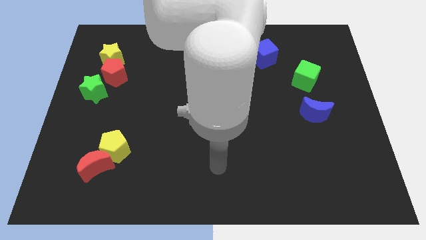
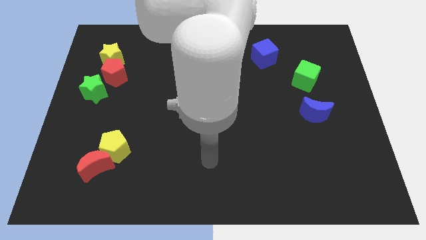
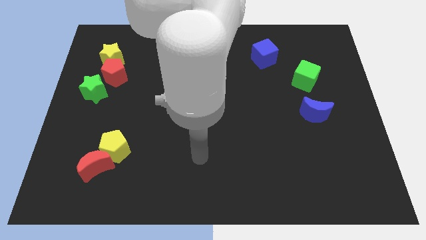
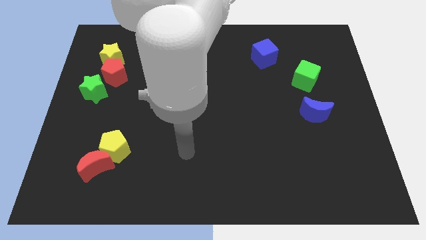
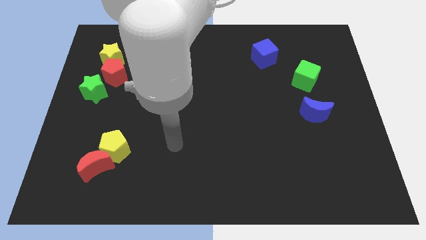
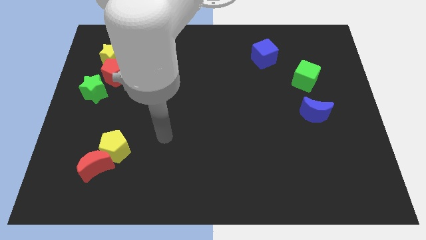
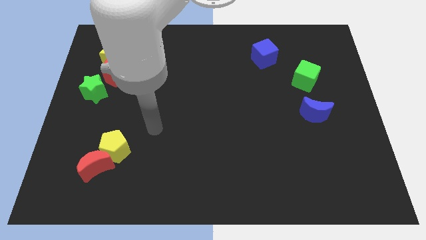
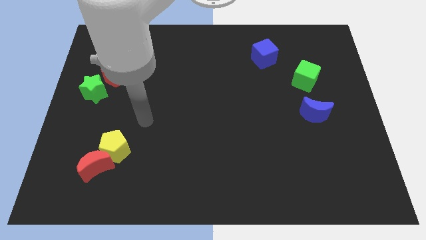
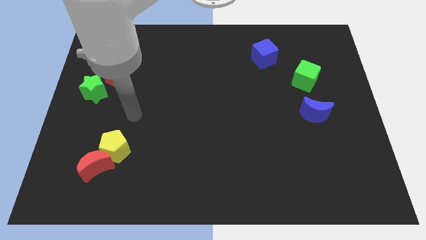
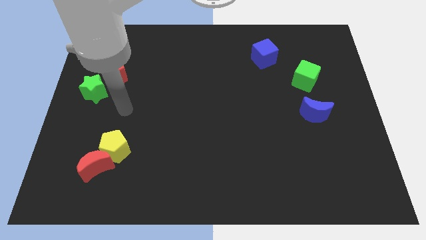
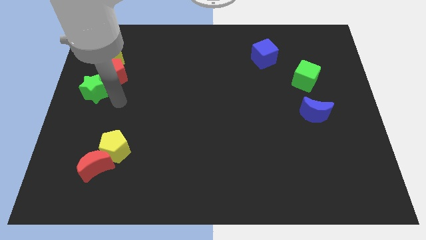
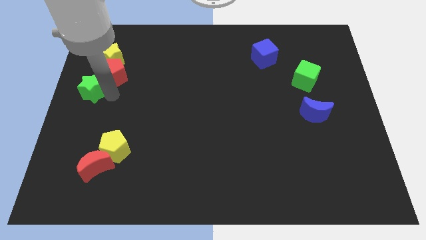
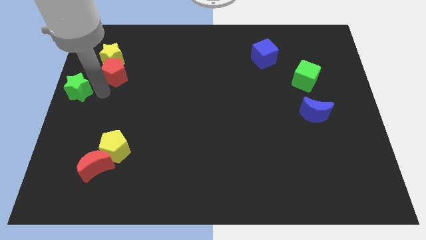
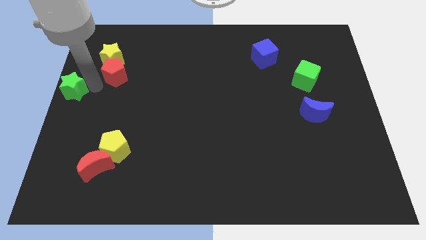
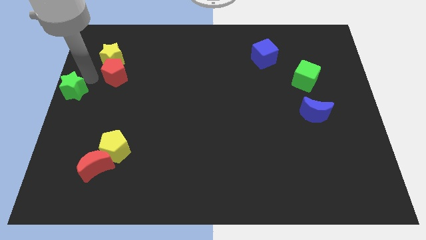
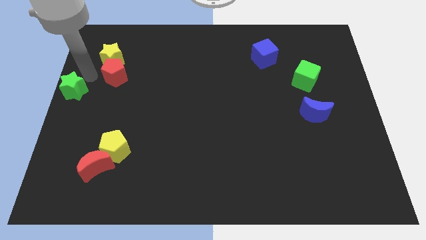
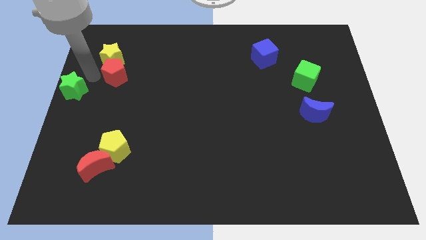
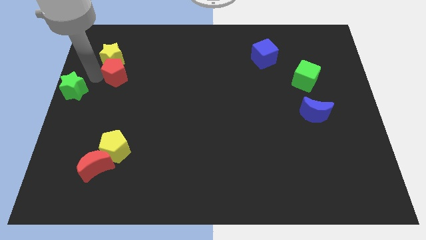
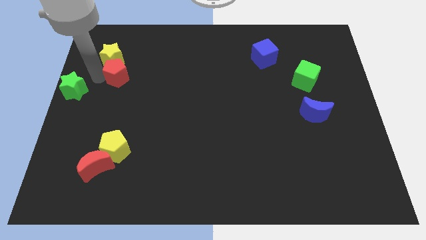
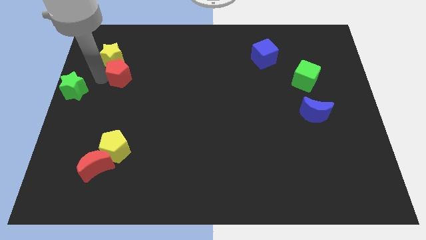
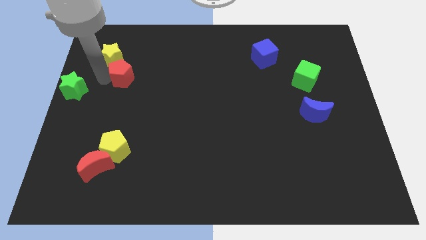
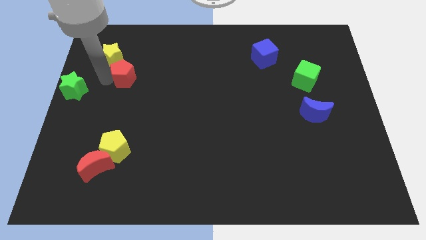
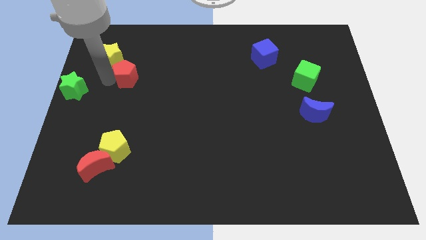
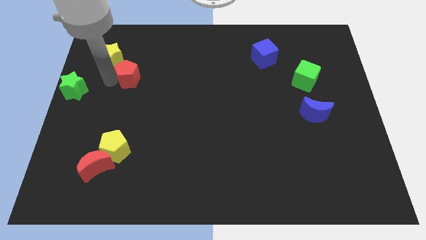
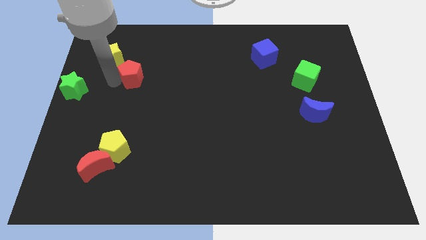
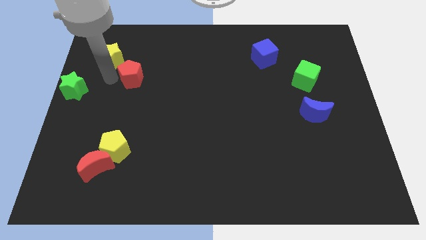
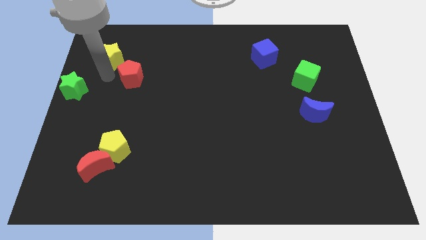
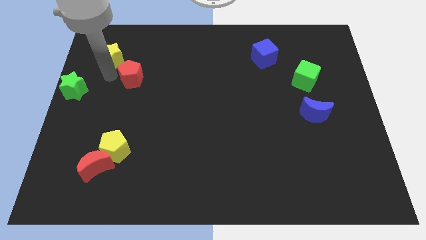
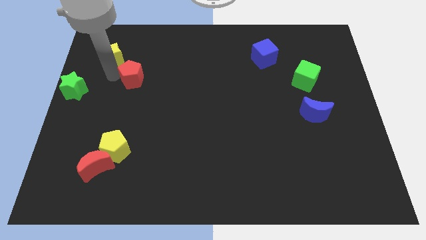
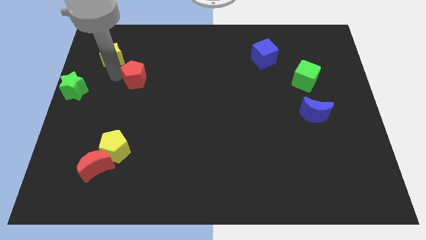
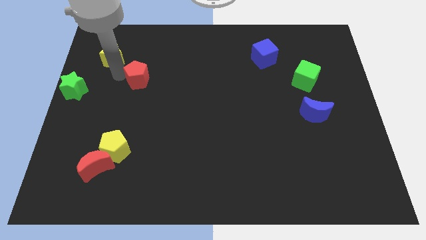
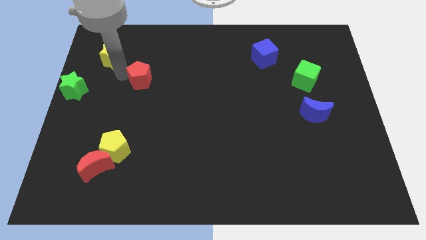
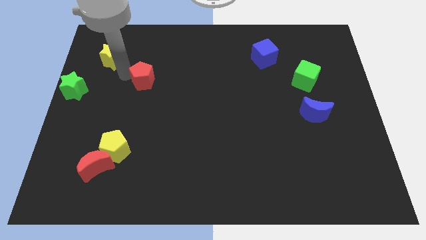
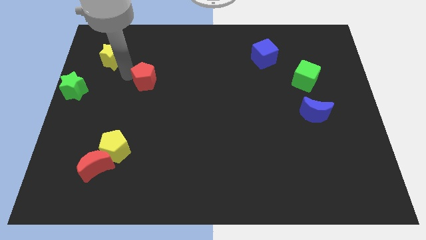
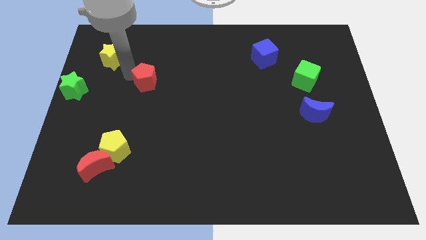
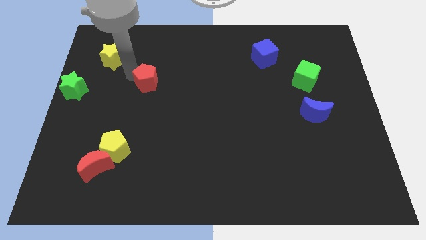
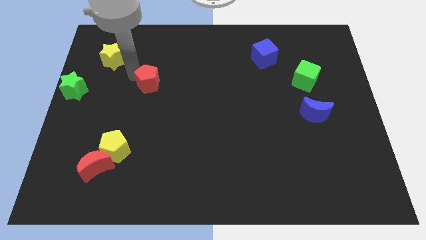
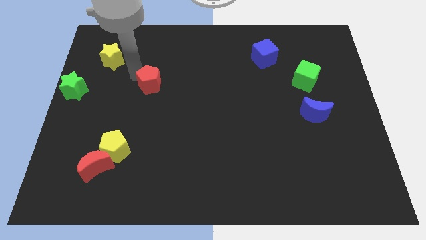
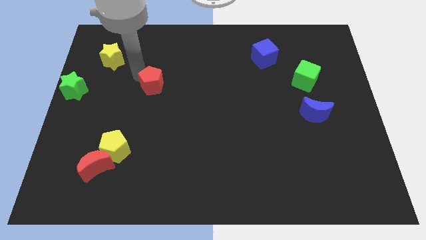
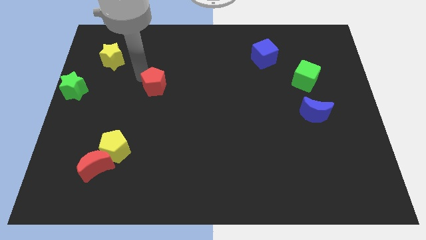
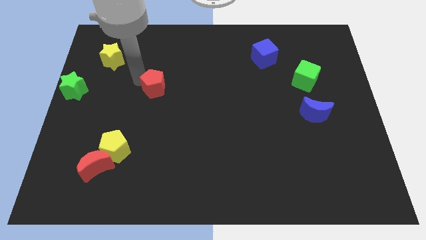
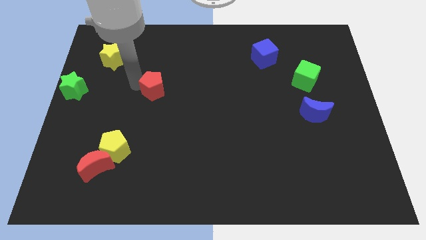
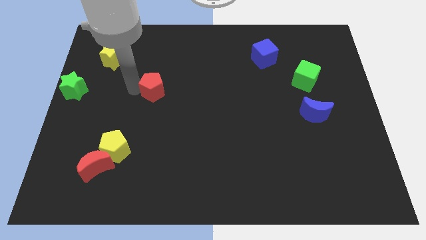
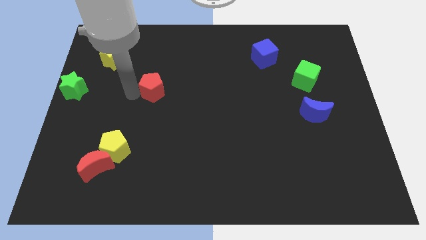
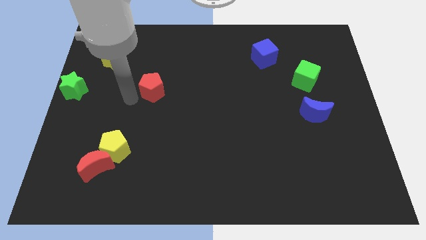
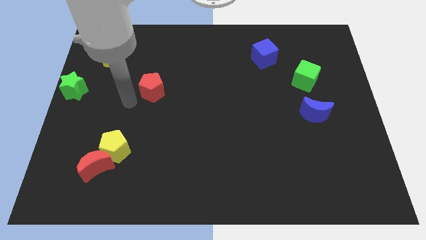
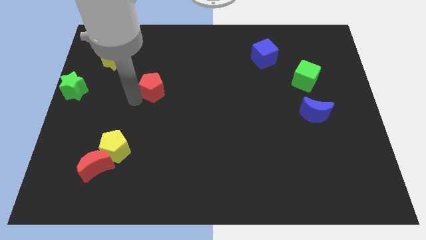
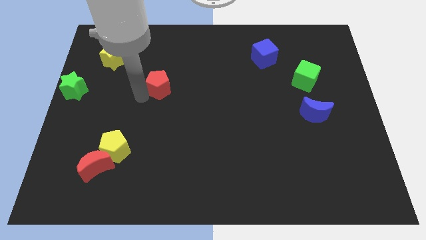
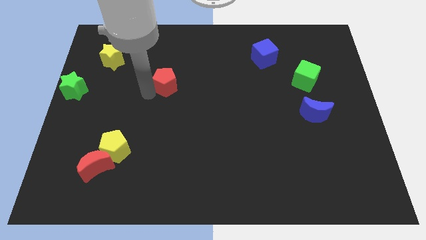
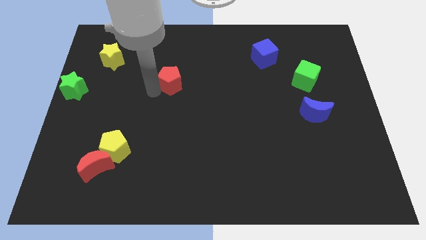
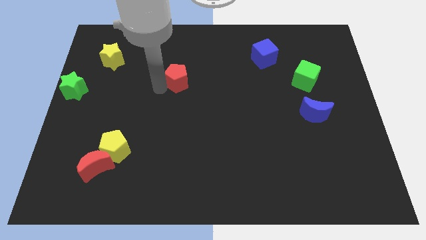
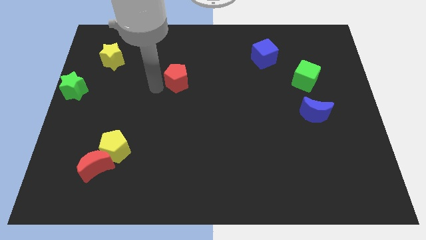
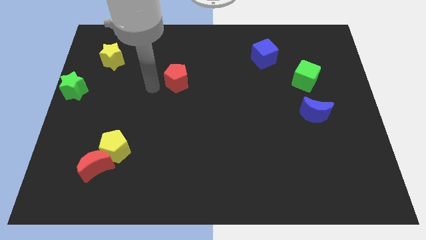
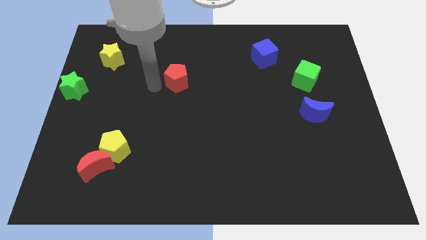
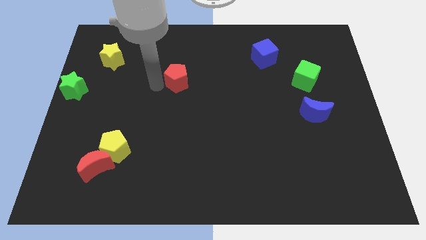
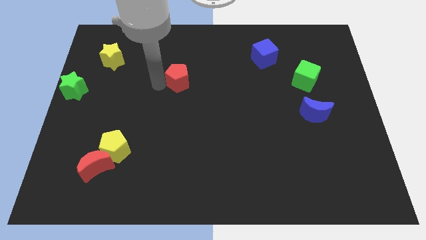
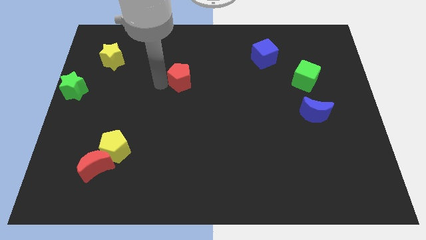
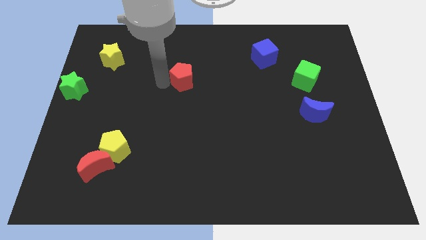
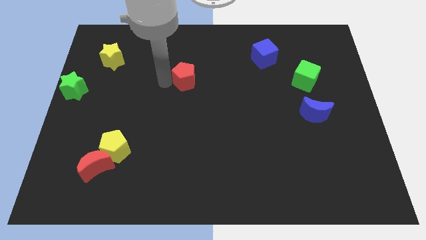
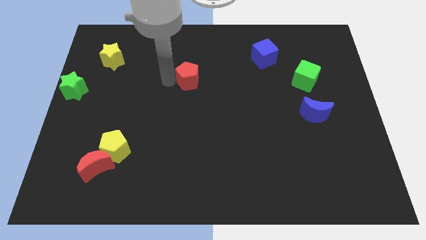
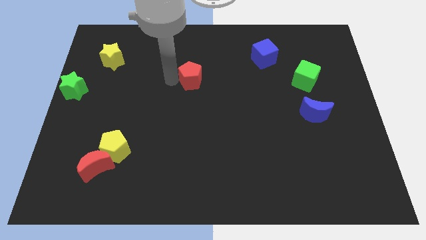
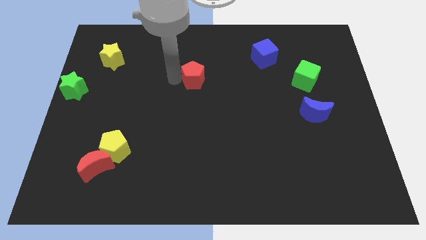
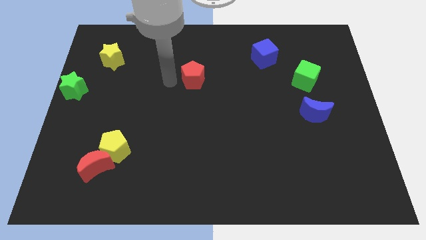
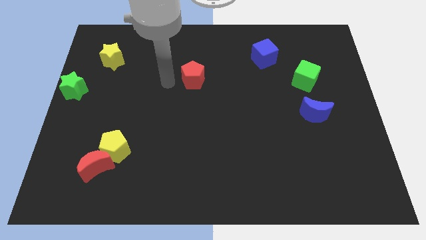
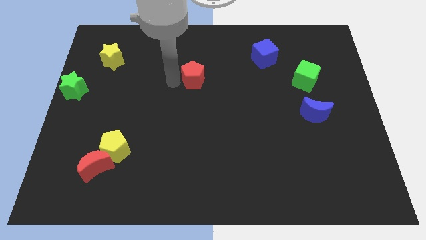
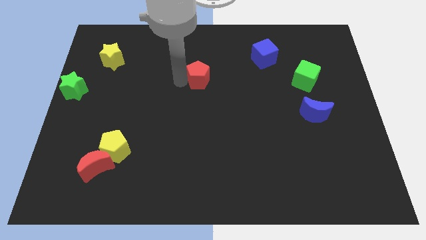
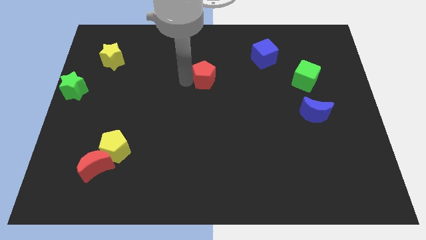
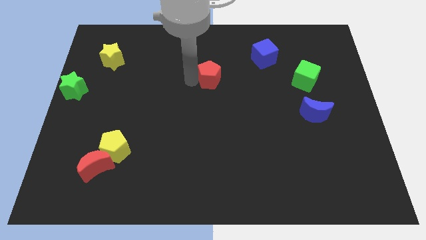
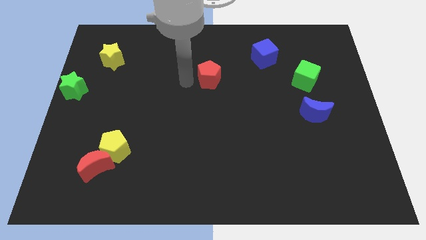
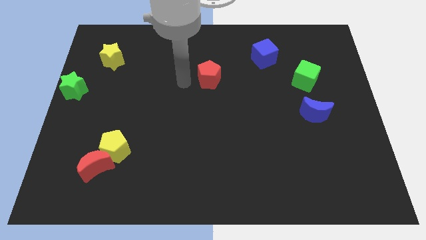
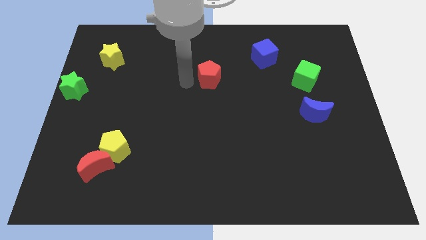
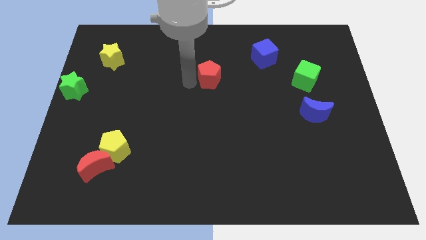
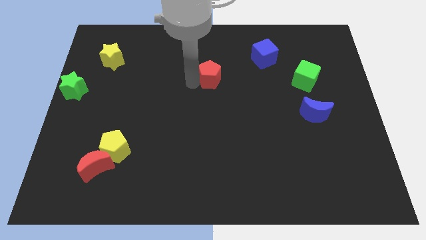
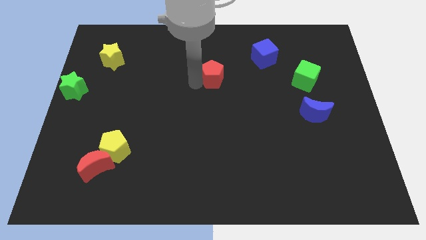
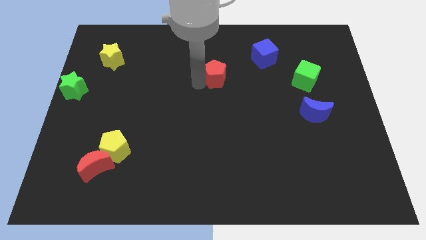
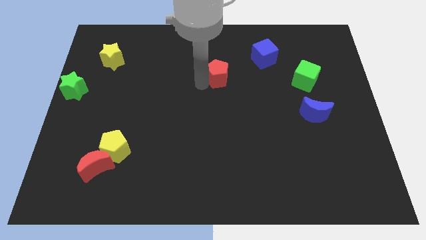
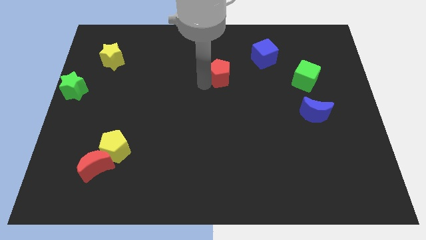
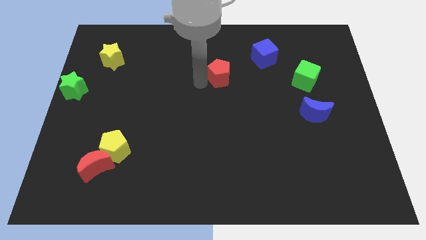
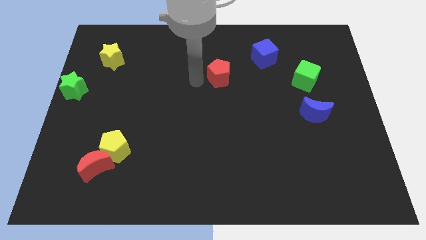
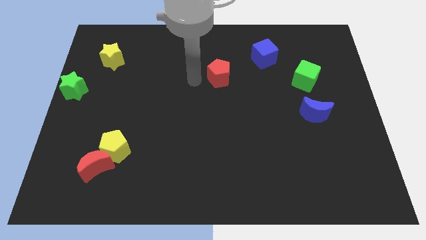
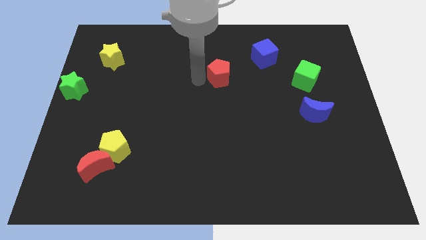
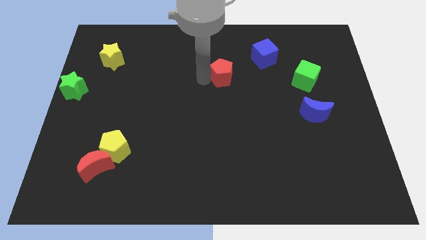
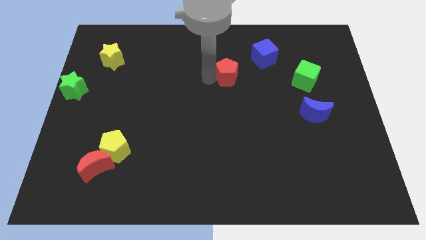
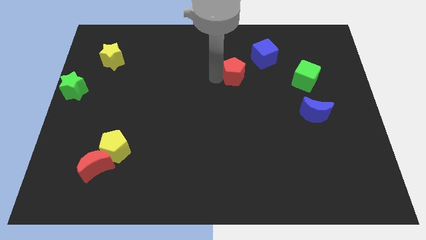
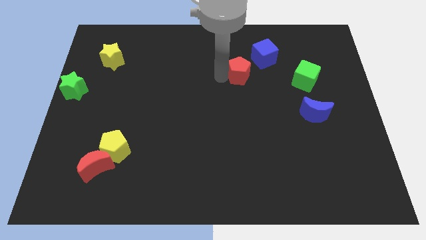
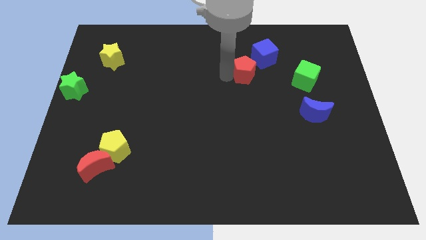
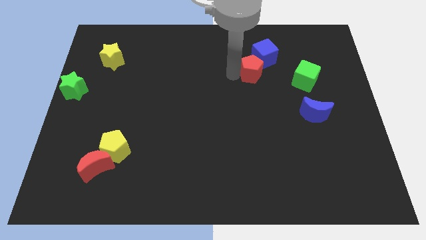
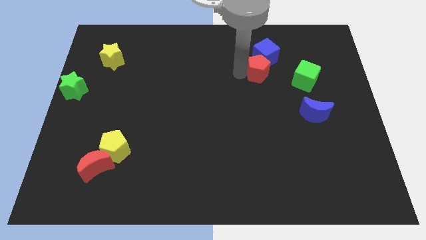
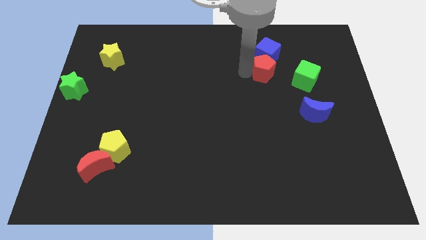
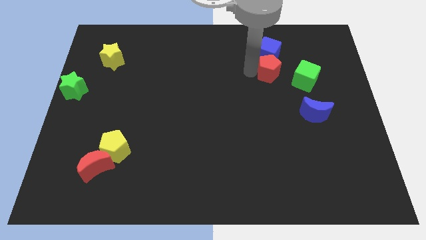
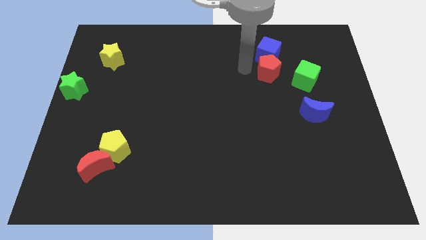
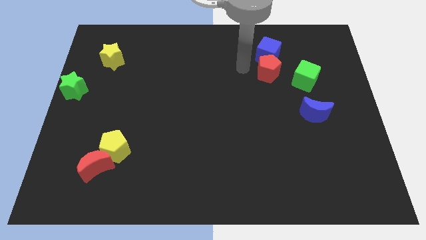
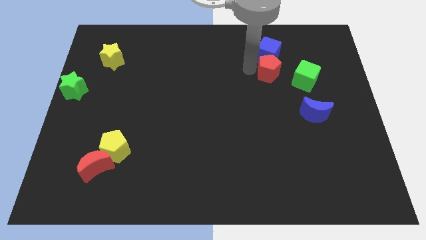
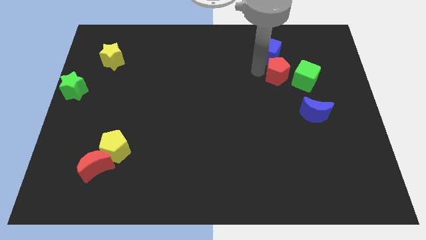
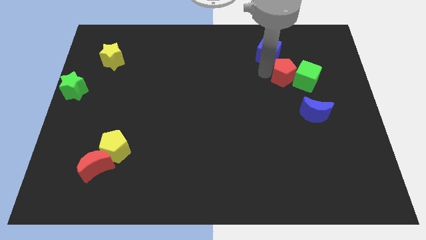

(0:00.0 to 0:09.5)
slide the red pentagon close to the green cube
